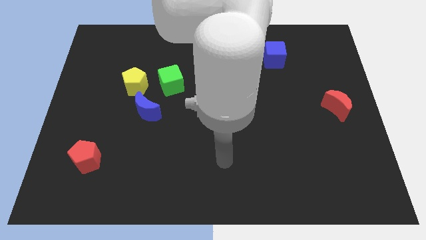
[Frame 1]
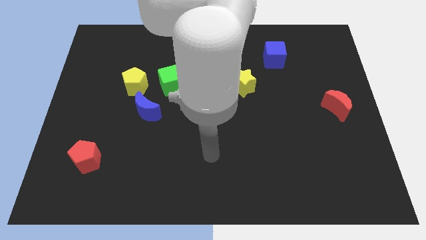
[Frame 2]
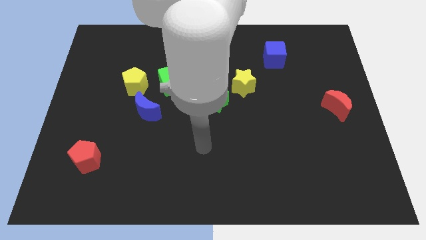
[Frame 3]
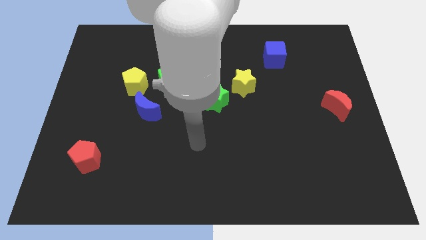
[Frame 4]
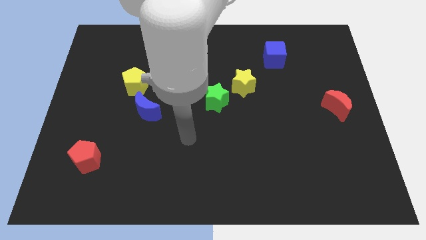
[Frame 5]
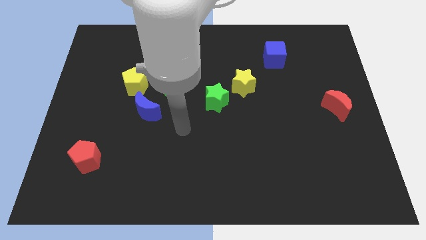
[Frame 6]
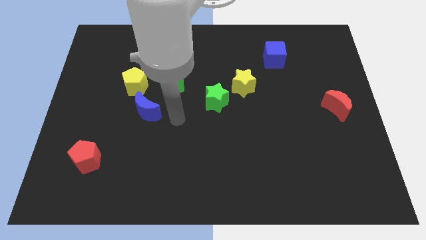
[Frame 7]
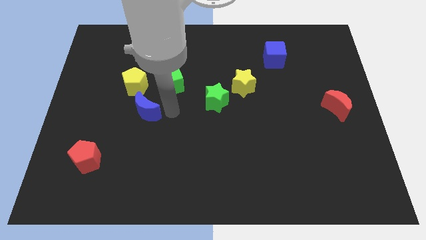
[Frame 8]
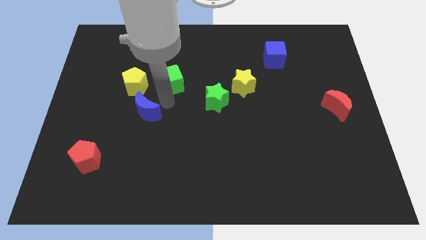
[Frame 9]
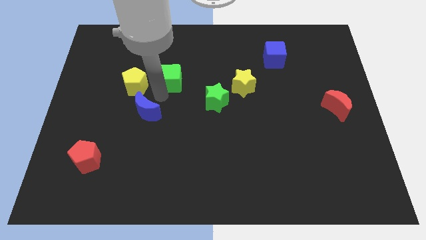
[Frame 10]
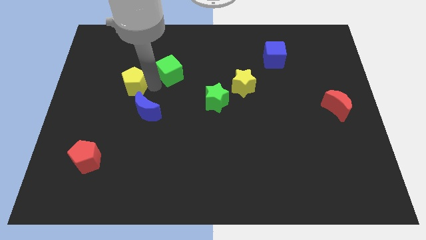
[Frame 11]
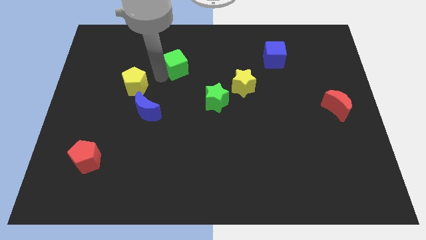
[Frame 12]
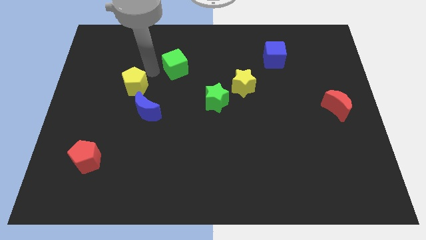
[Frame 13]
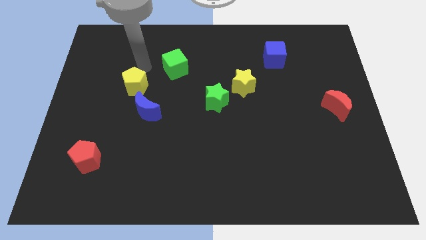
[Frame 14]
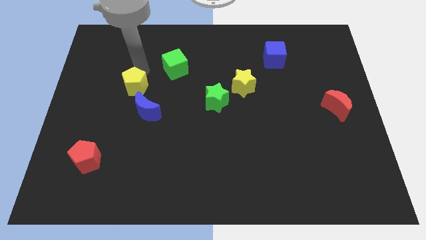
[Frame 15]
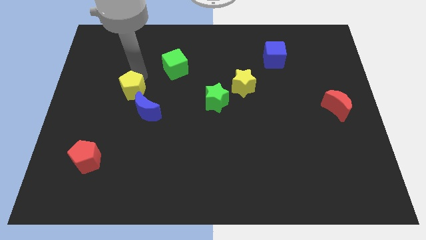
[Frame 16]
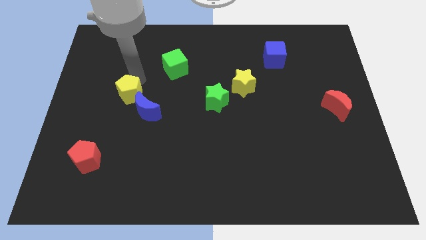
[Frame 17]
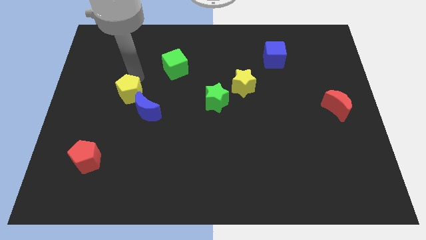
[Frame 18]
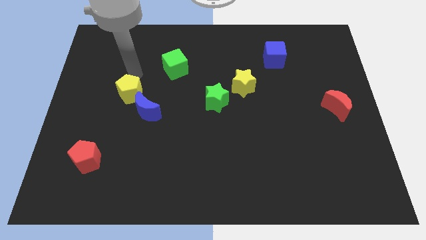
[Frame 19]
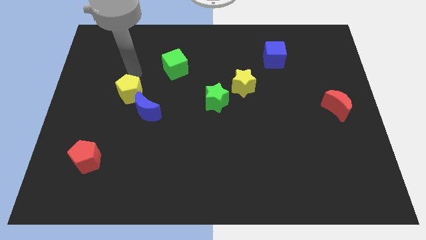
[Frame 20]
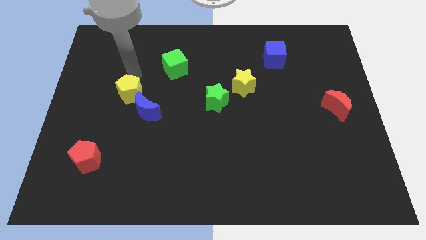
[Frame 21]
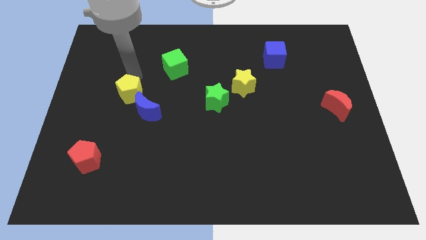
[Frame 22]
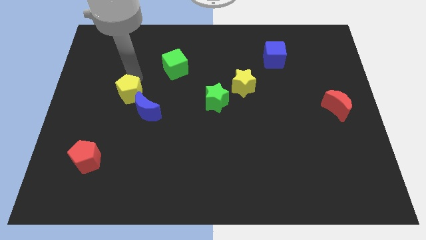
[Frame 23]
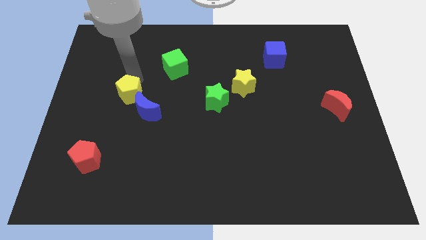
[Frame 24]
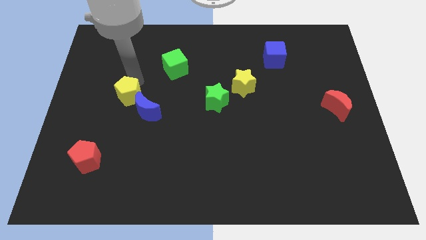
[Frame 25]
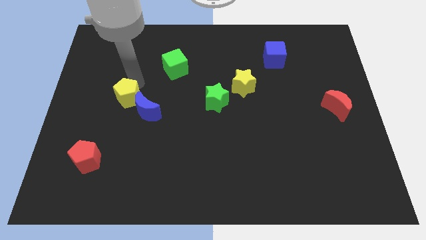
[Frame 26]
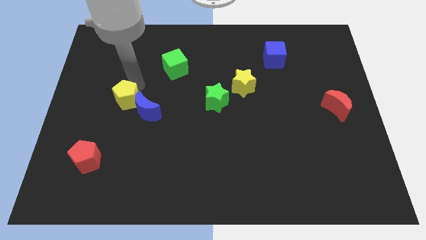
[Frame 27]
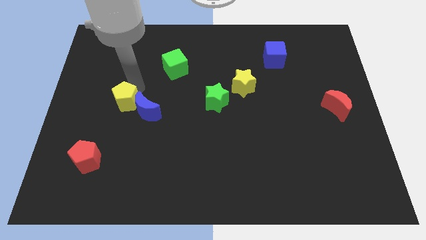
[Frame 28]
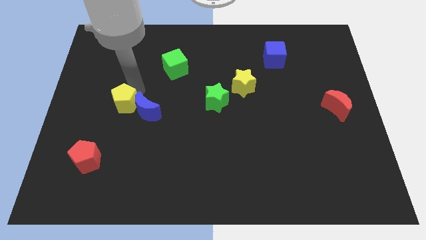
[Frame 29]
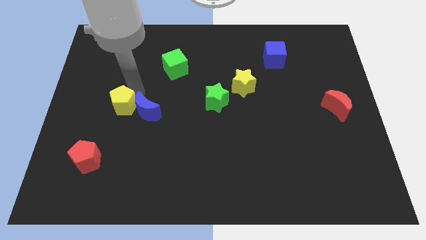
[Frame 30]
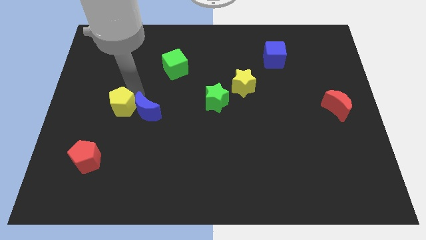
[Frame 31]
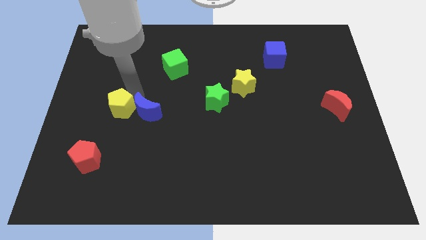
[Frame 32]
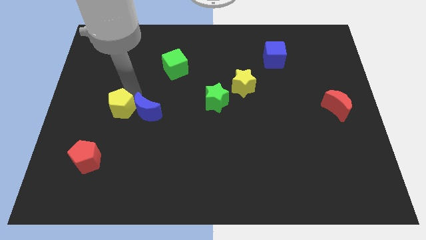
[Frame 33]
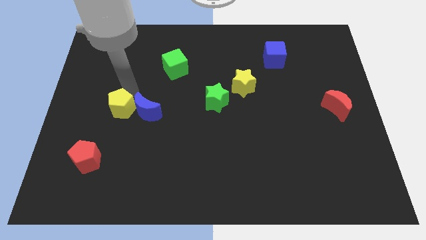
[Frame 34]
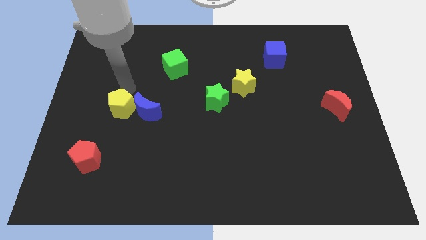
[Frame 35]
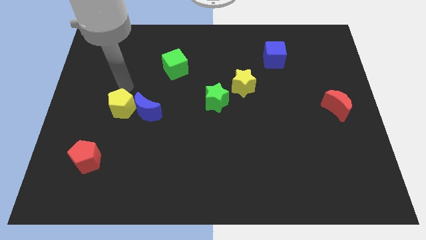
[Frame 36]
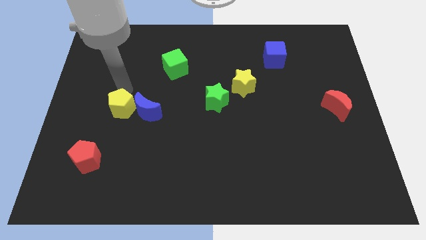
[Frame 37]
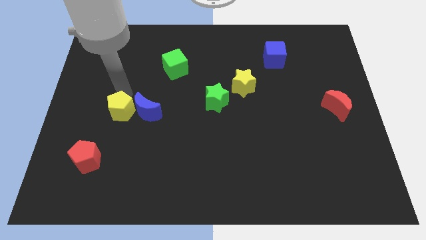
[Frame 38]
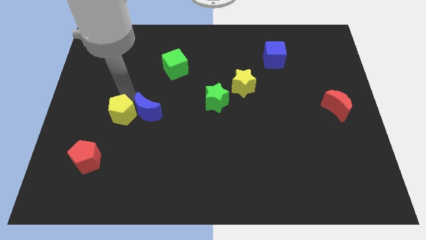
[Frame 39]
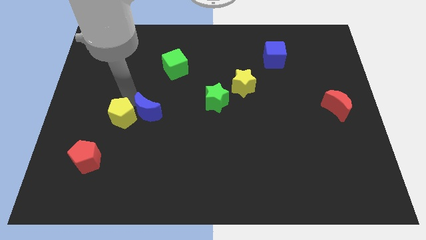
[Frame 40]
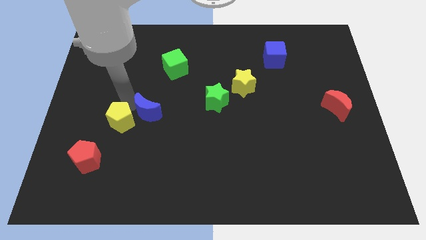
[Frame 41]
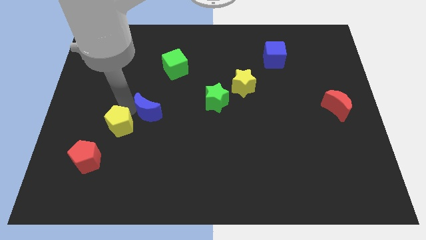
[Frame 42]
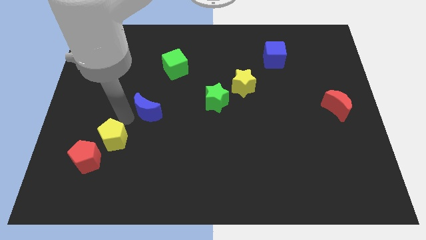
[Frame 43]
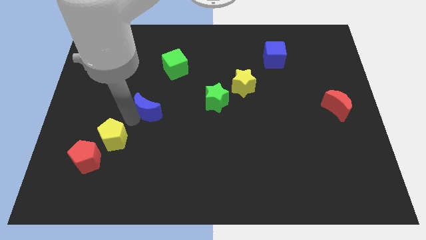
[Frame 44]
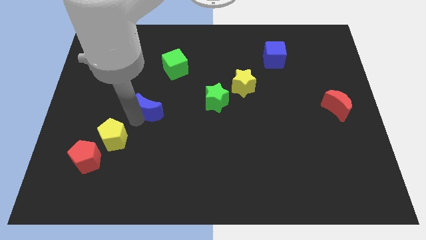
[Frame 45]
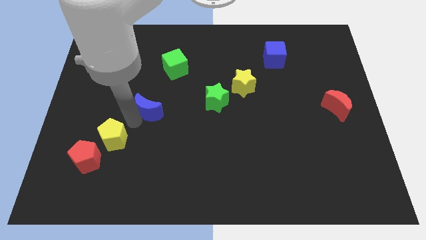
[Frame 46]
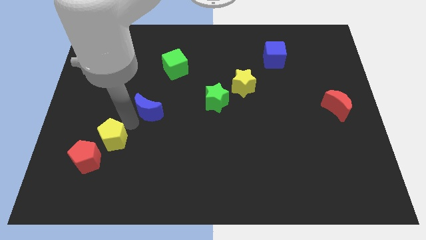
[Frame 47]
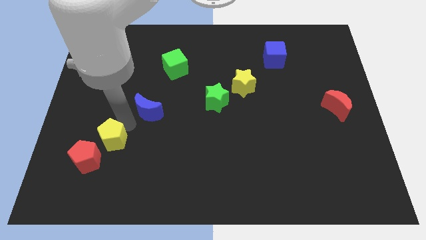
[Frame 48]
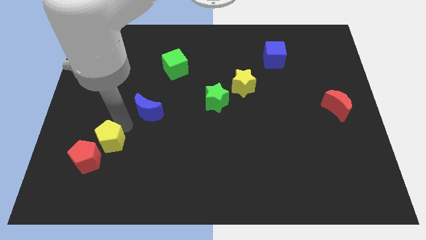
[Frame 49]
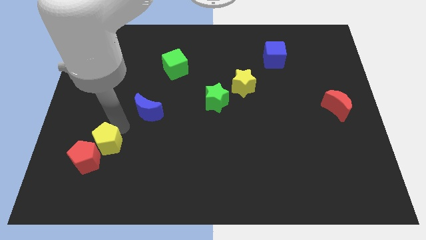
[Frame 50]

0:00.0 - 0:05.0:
slide the yellow pentagon to the red pentagon

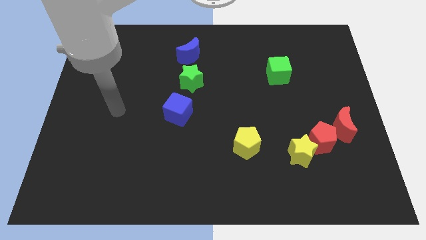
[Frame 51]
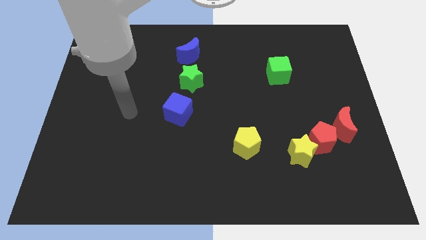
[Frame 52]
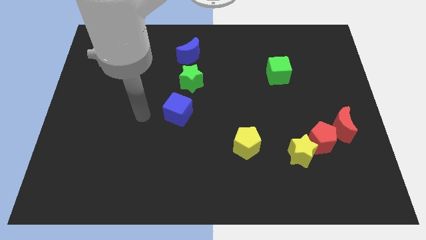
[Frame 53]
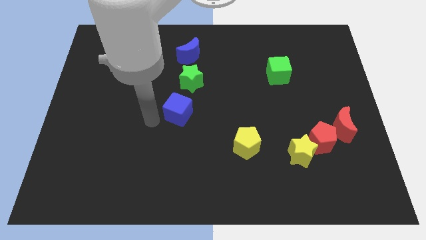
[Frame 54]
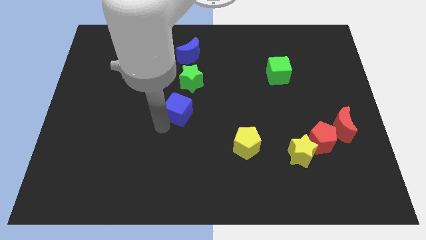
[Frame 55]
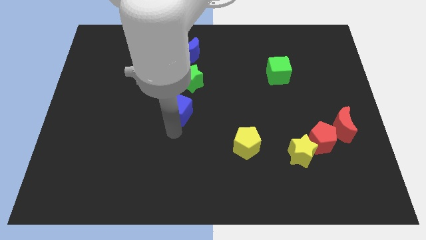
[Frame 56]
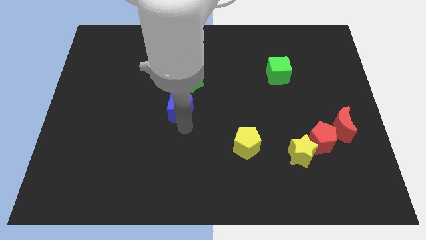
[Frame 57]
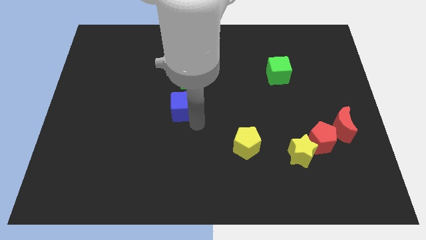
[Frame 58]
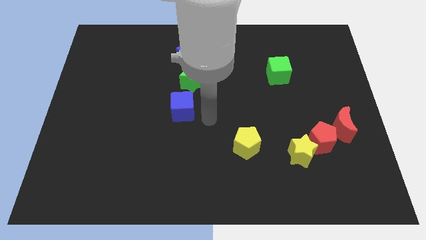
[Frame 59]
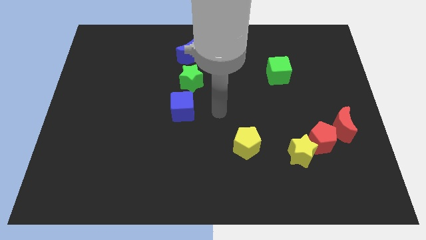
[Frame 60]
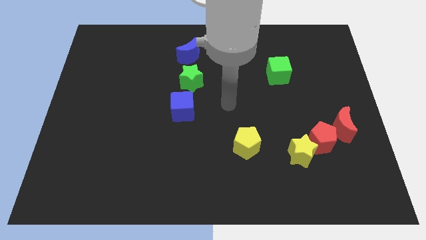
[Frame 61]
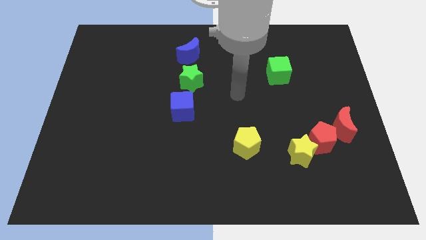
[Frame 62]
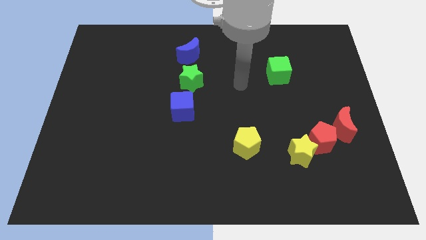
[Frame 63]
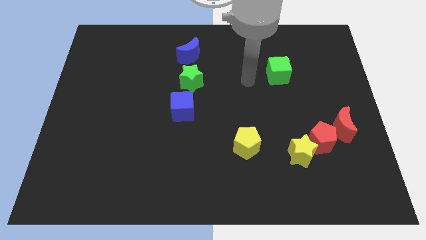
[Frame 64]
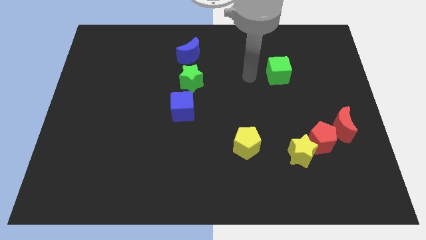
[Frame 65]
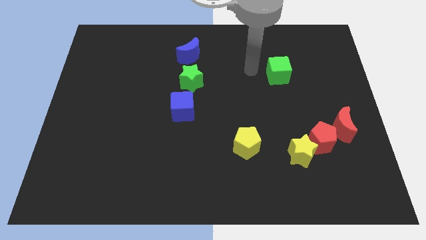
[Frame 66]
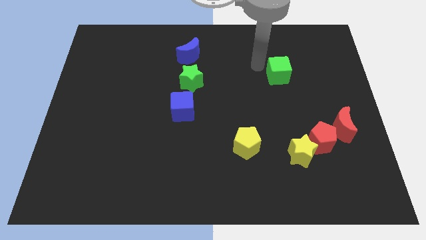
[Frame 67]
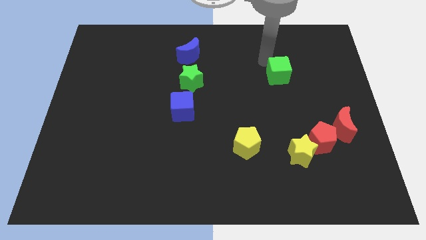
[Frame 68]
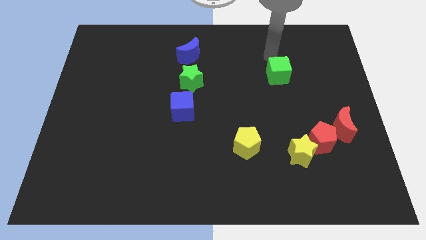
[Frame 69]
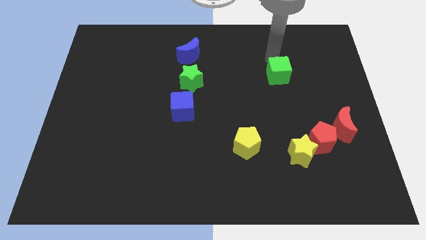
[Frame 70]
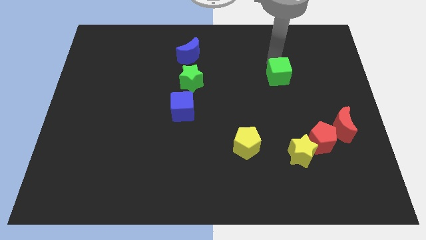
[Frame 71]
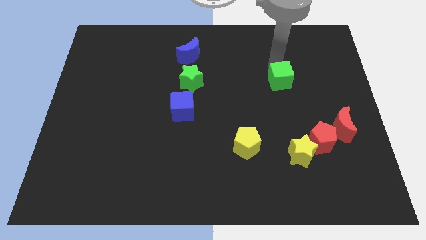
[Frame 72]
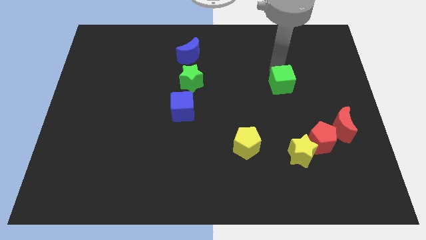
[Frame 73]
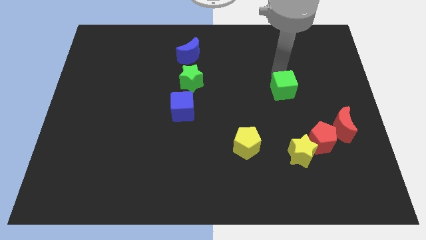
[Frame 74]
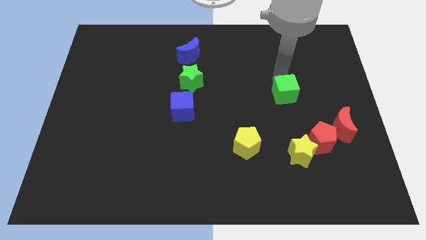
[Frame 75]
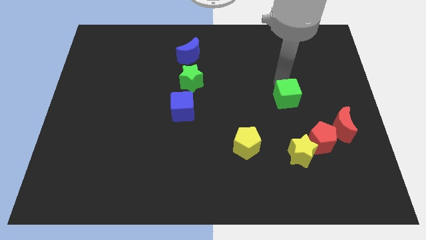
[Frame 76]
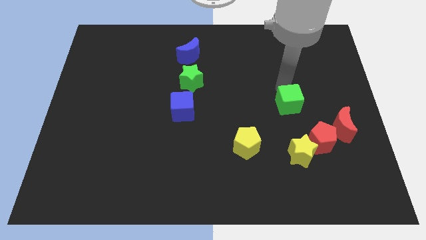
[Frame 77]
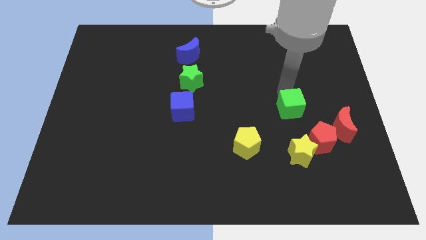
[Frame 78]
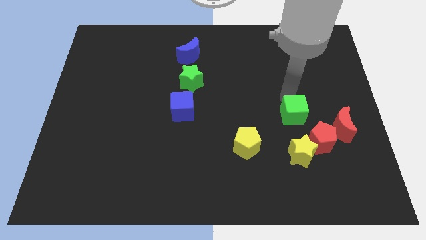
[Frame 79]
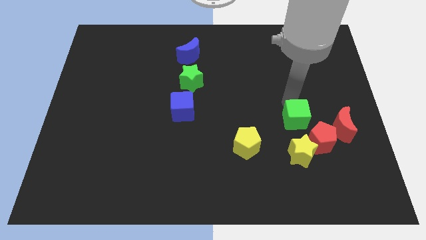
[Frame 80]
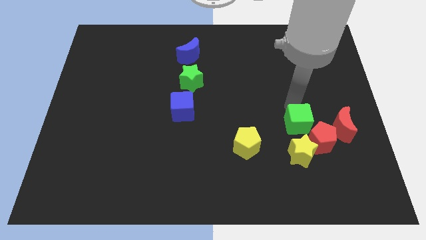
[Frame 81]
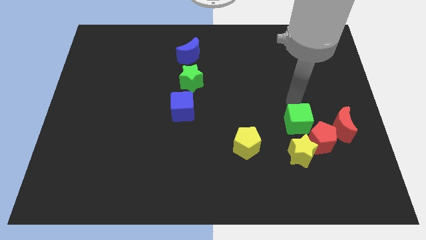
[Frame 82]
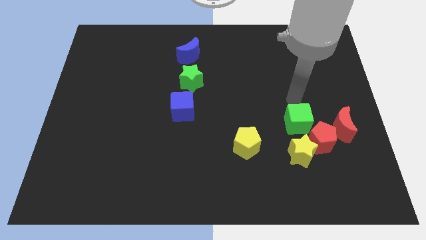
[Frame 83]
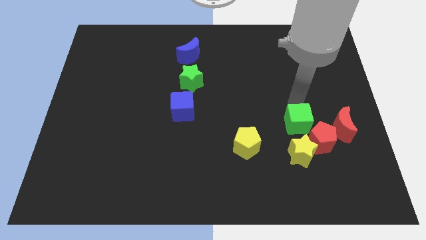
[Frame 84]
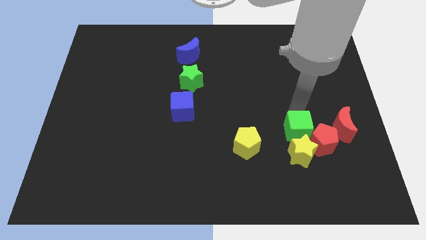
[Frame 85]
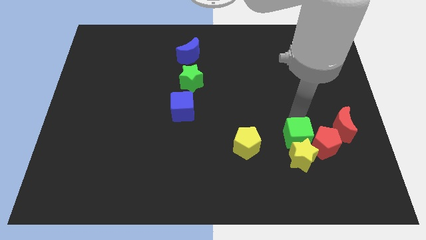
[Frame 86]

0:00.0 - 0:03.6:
slide the green cube to the yellow star
